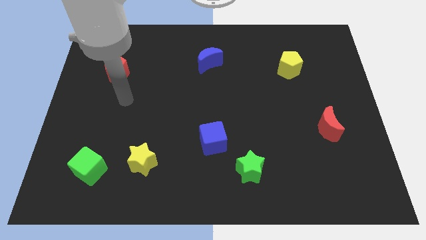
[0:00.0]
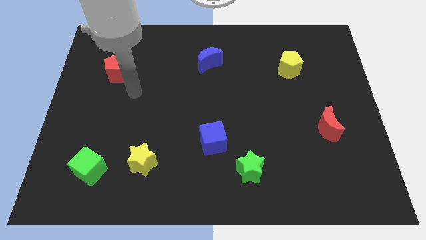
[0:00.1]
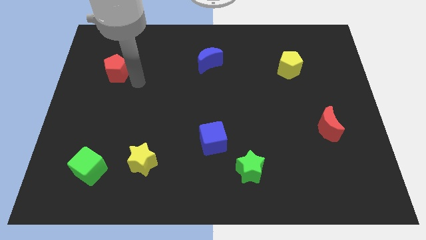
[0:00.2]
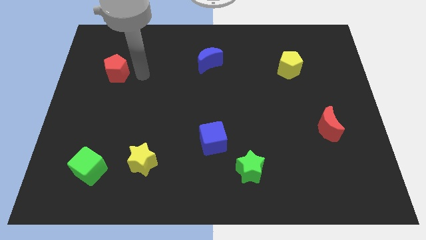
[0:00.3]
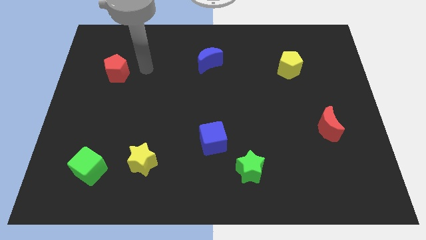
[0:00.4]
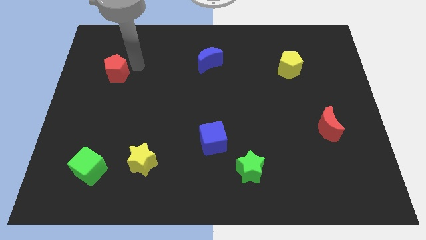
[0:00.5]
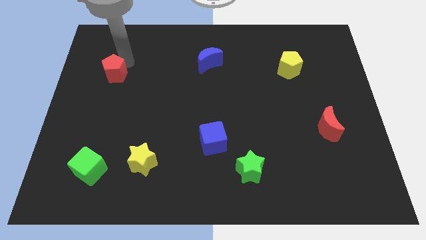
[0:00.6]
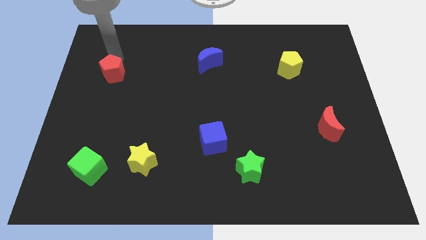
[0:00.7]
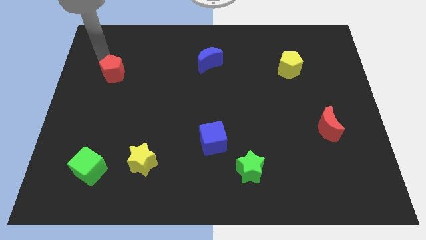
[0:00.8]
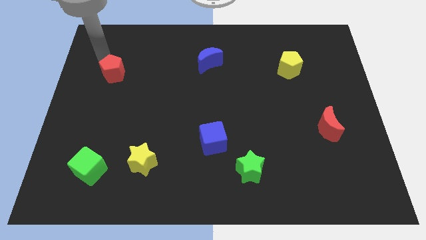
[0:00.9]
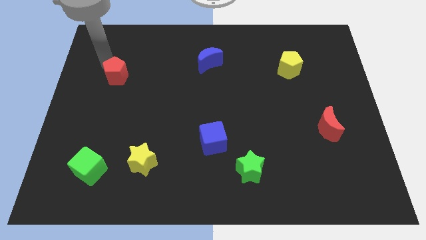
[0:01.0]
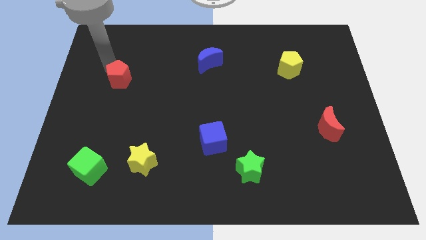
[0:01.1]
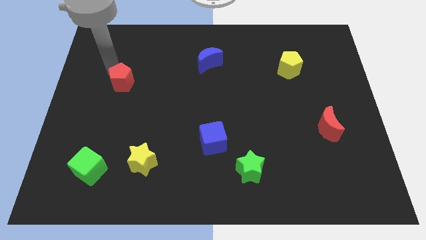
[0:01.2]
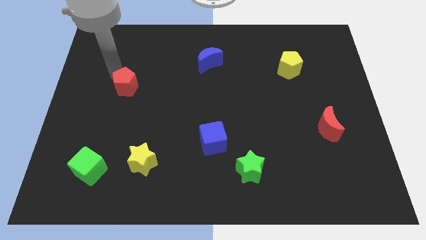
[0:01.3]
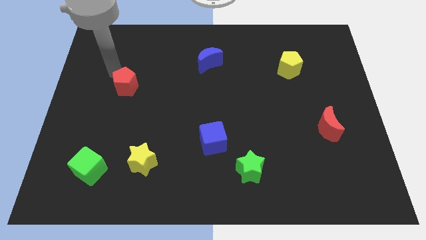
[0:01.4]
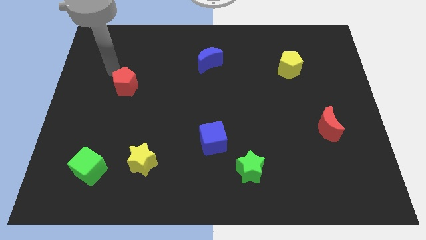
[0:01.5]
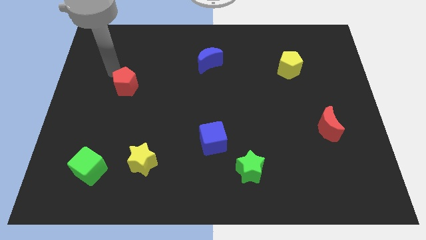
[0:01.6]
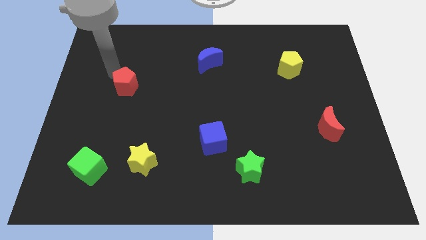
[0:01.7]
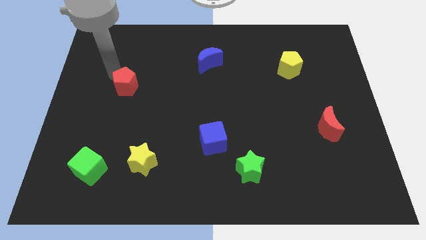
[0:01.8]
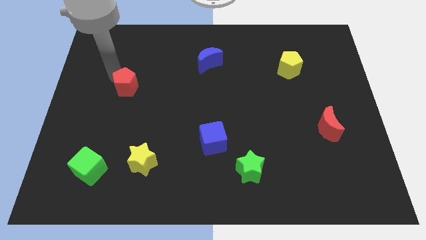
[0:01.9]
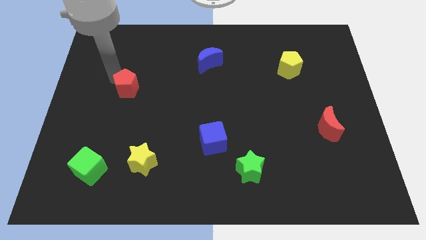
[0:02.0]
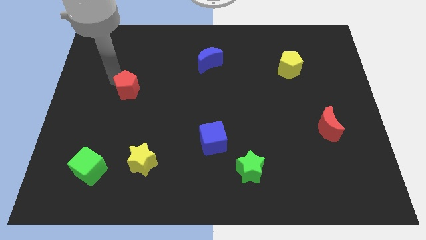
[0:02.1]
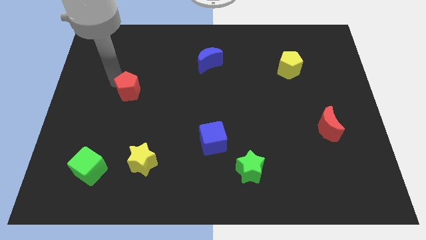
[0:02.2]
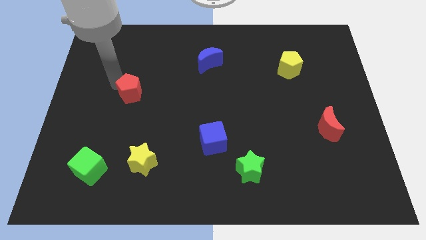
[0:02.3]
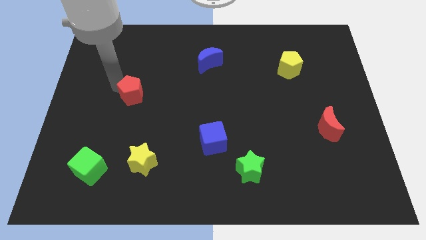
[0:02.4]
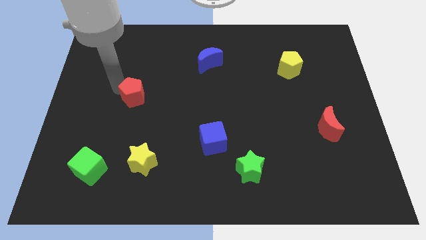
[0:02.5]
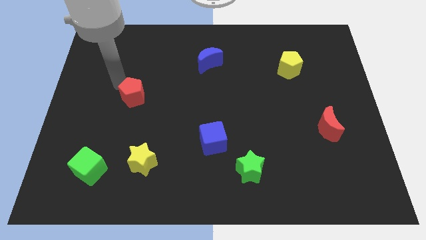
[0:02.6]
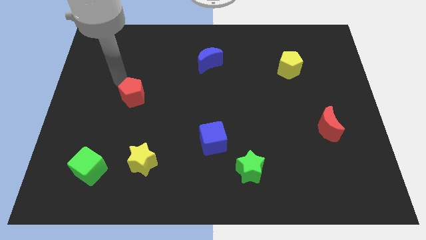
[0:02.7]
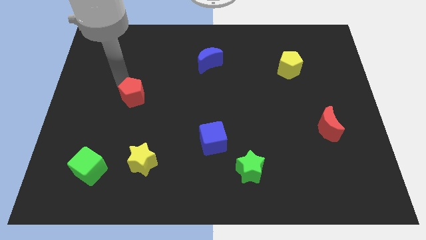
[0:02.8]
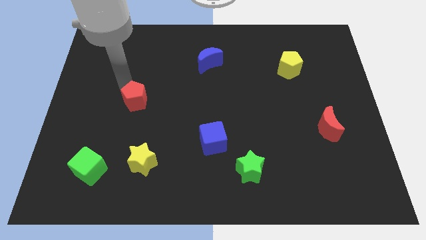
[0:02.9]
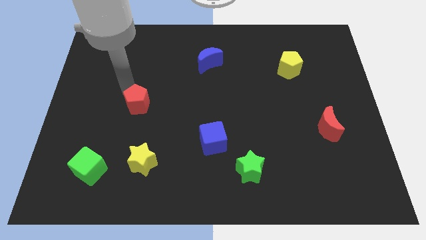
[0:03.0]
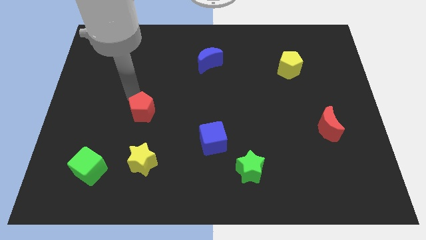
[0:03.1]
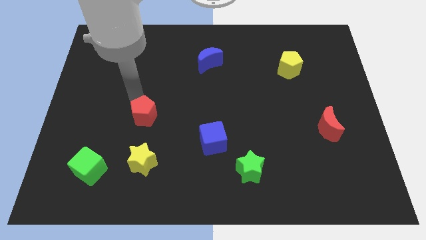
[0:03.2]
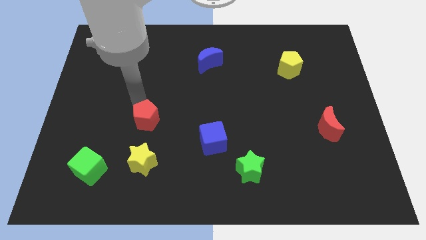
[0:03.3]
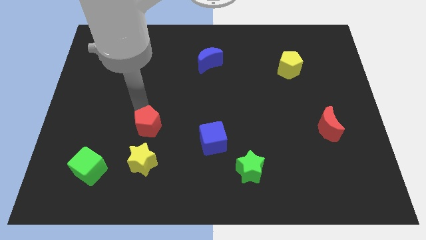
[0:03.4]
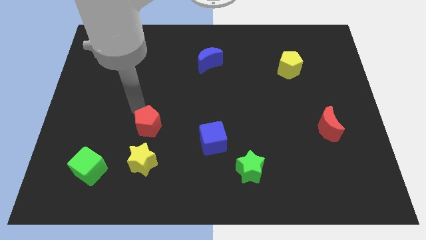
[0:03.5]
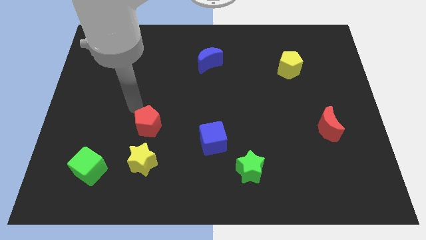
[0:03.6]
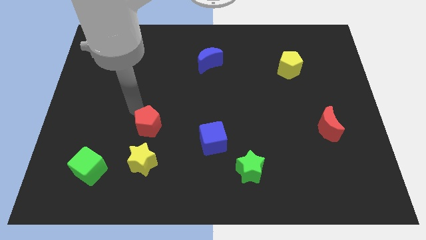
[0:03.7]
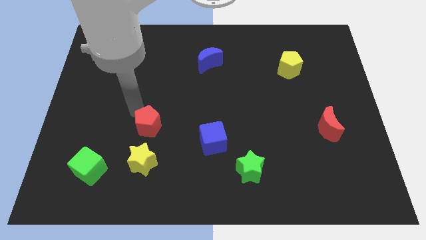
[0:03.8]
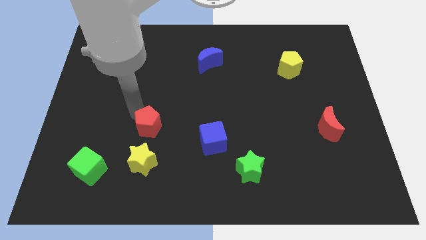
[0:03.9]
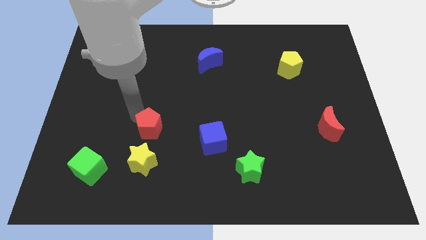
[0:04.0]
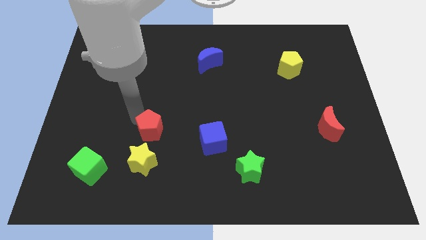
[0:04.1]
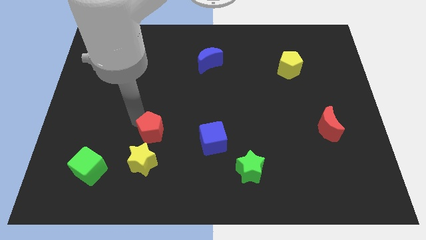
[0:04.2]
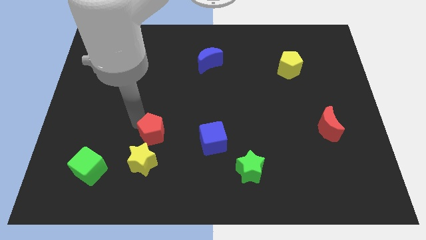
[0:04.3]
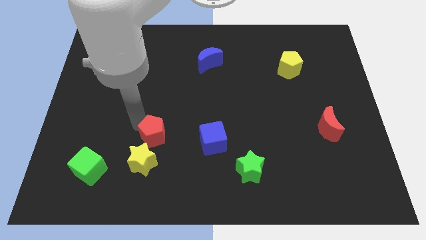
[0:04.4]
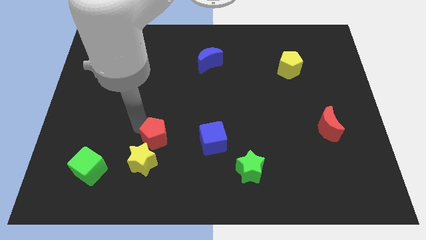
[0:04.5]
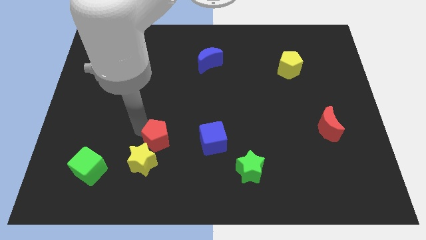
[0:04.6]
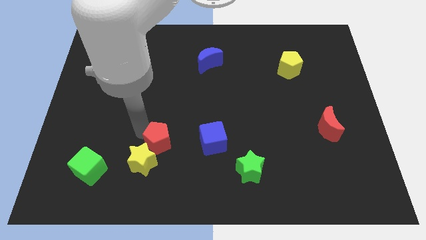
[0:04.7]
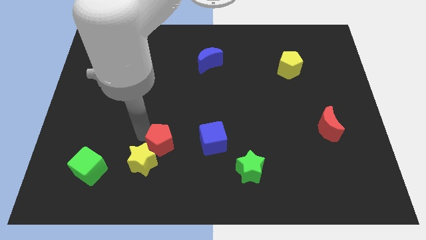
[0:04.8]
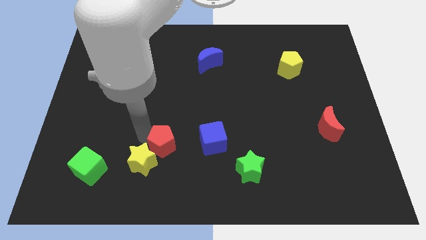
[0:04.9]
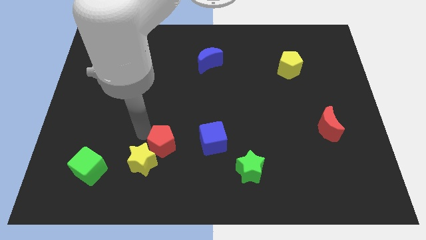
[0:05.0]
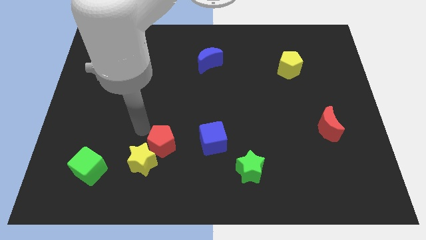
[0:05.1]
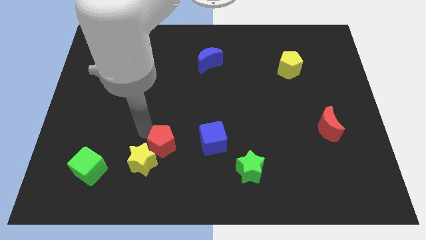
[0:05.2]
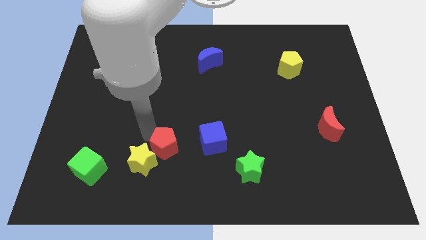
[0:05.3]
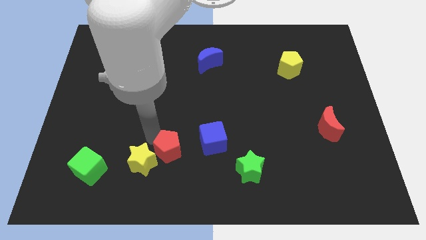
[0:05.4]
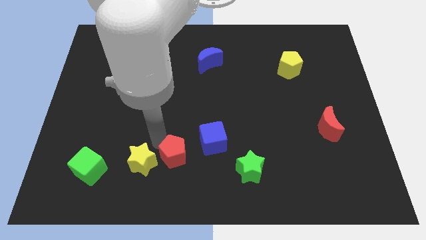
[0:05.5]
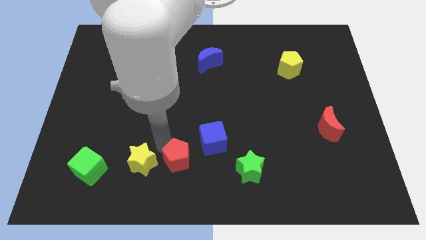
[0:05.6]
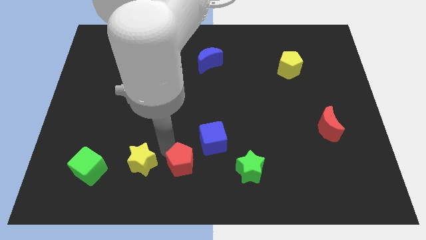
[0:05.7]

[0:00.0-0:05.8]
move the red pentagon to the bottom side

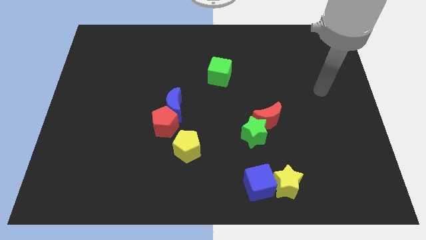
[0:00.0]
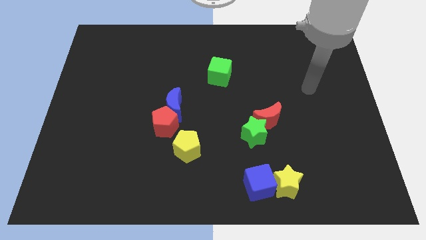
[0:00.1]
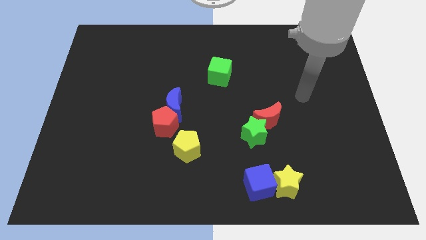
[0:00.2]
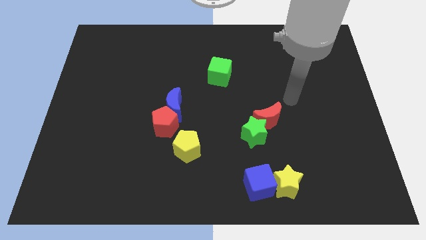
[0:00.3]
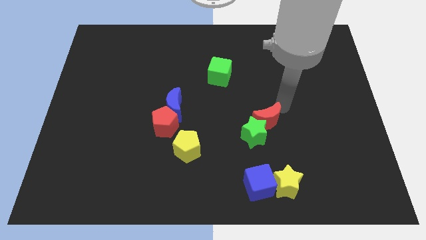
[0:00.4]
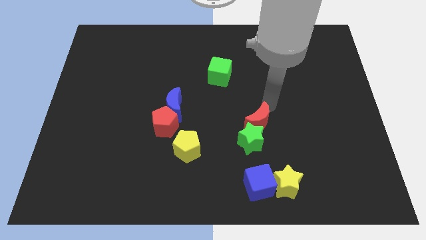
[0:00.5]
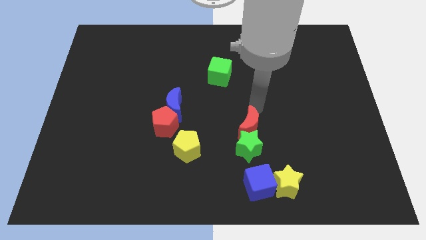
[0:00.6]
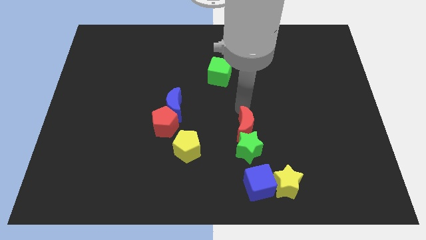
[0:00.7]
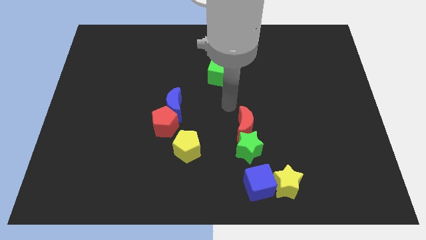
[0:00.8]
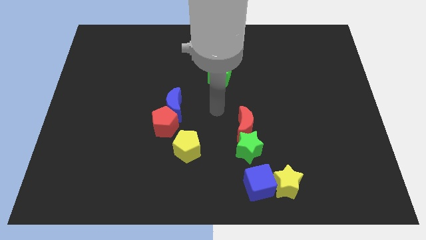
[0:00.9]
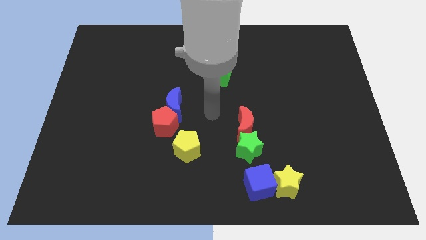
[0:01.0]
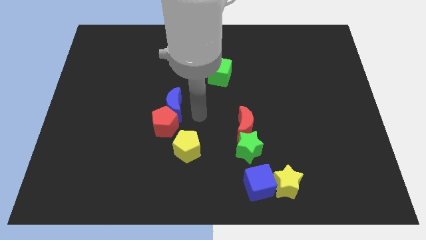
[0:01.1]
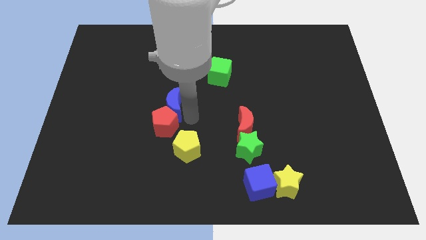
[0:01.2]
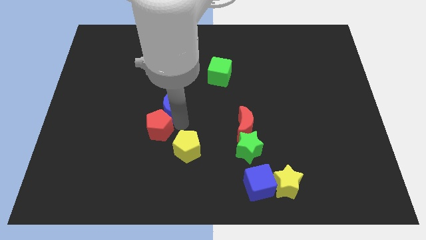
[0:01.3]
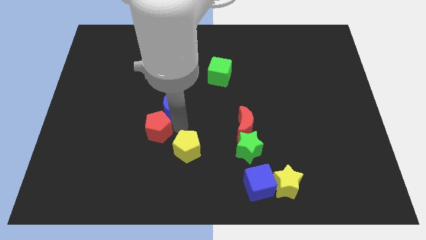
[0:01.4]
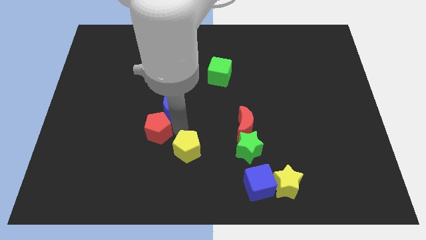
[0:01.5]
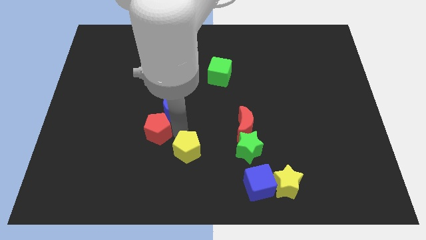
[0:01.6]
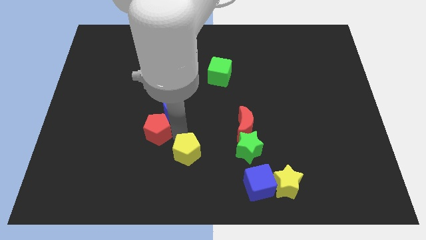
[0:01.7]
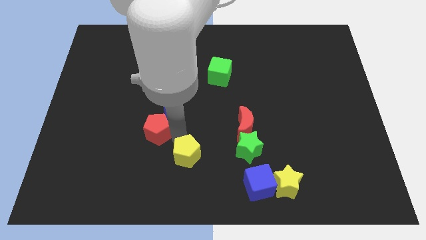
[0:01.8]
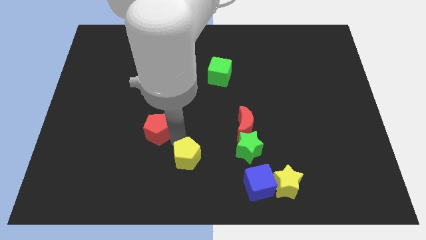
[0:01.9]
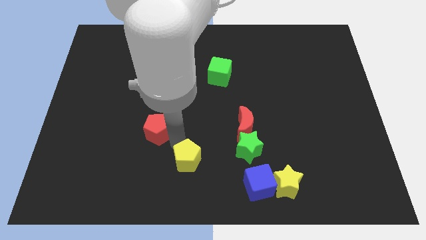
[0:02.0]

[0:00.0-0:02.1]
slide the yellow pentagon to the bottom
